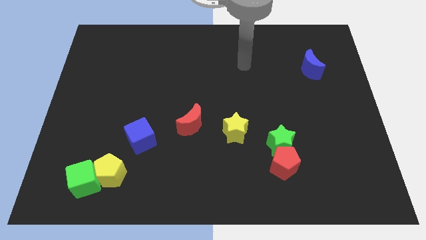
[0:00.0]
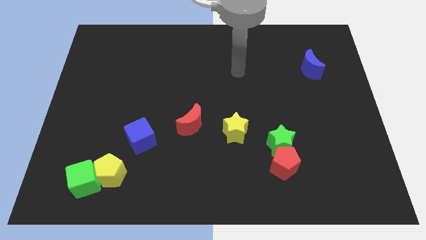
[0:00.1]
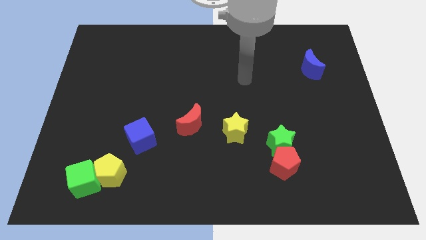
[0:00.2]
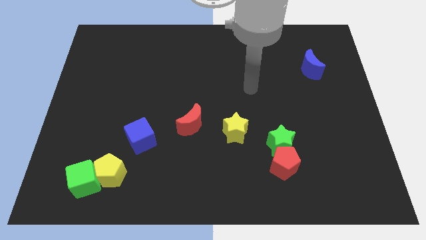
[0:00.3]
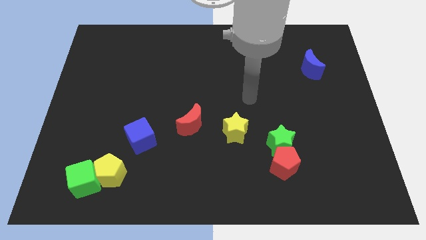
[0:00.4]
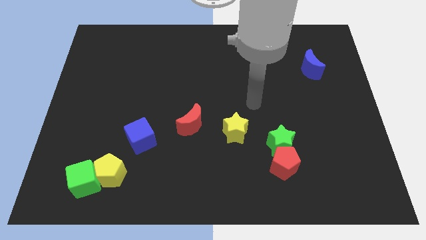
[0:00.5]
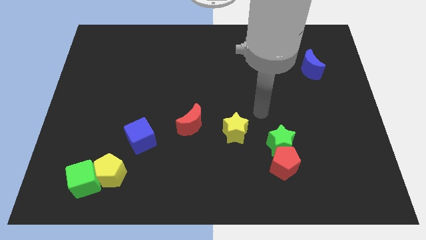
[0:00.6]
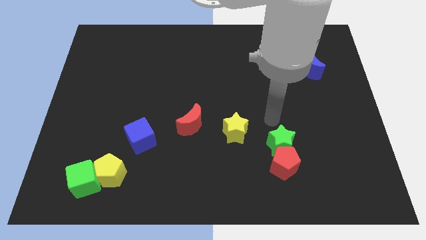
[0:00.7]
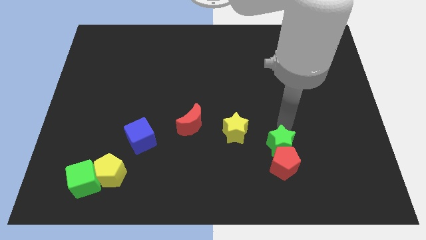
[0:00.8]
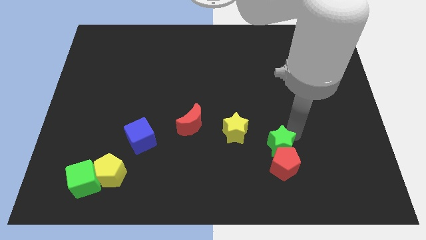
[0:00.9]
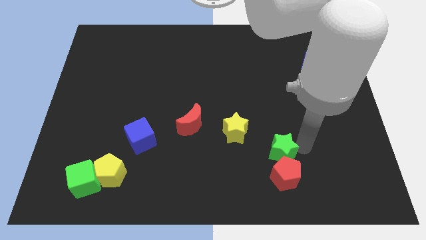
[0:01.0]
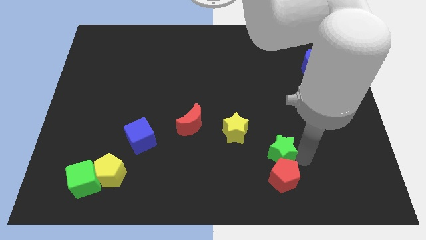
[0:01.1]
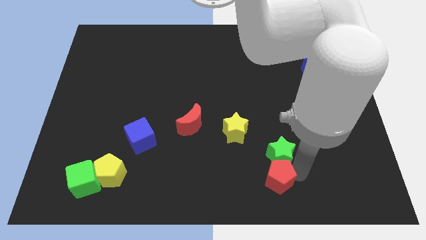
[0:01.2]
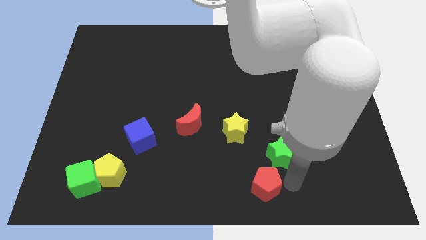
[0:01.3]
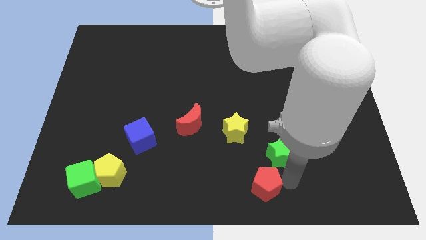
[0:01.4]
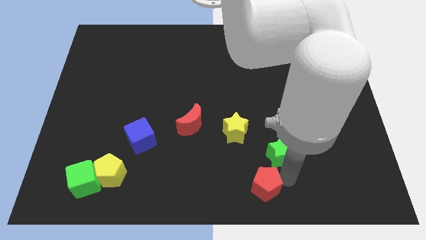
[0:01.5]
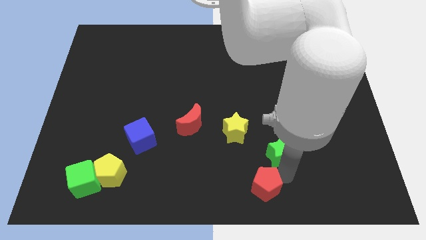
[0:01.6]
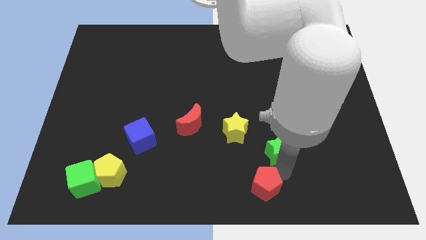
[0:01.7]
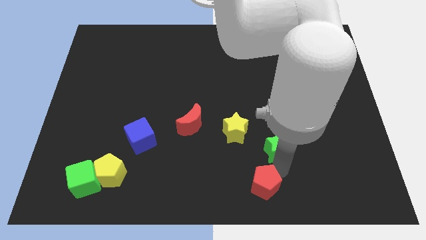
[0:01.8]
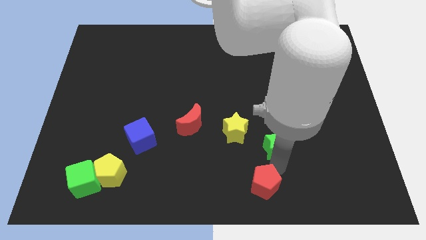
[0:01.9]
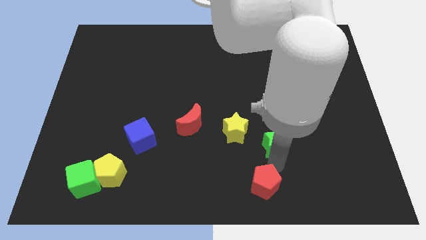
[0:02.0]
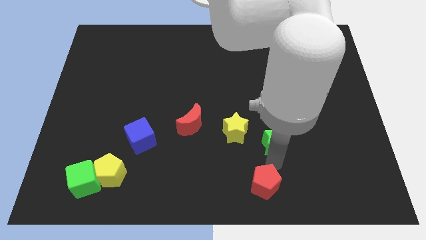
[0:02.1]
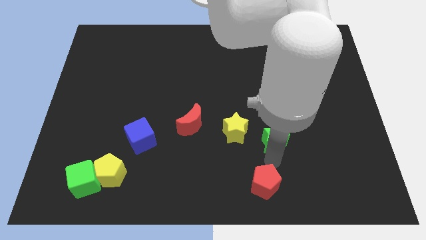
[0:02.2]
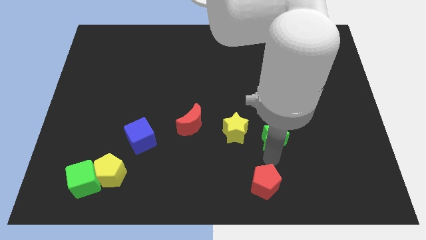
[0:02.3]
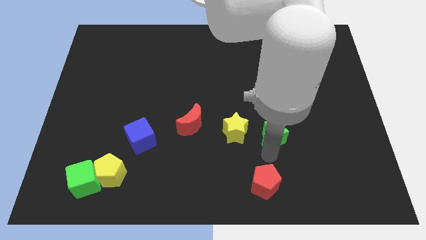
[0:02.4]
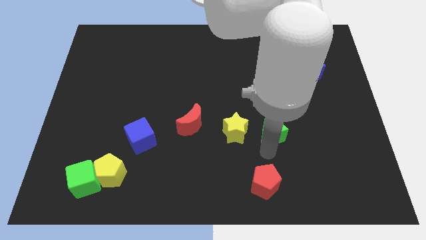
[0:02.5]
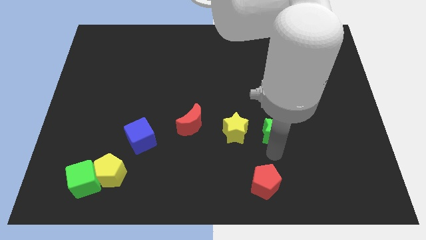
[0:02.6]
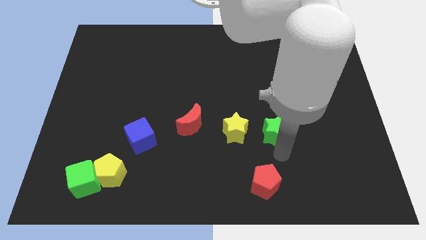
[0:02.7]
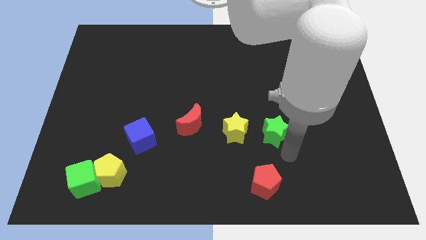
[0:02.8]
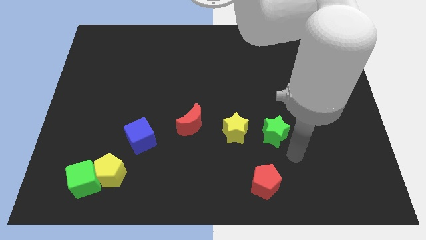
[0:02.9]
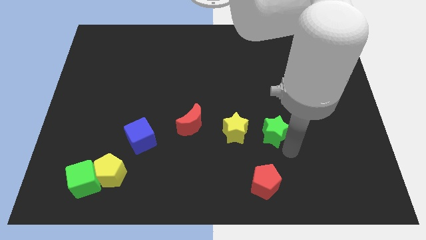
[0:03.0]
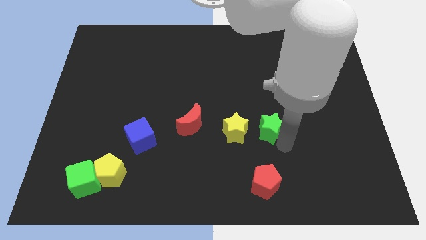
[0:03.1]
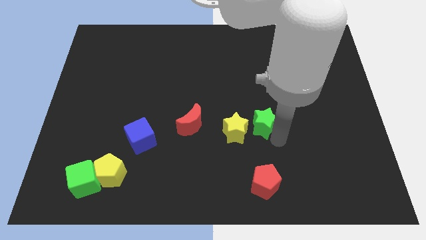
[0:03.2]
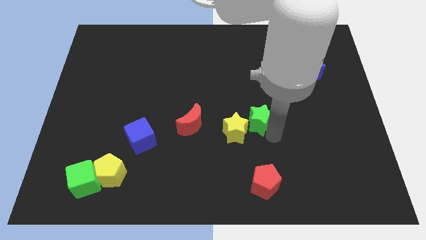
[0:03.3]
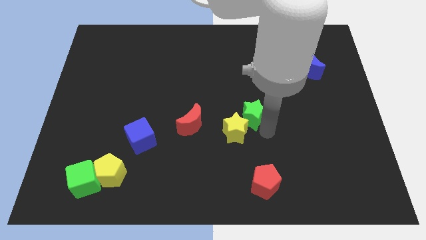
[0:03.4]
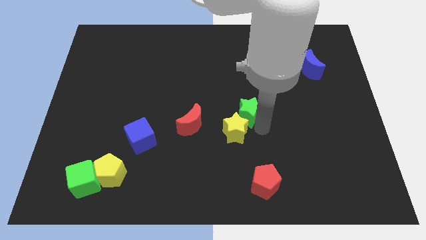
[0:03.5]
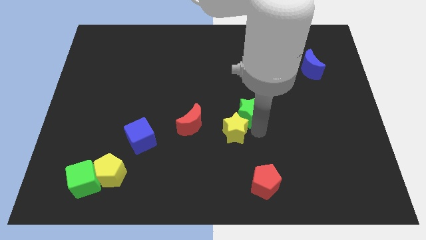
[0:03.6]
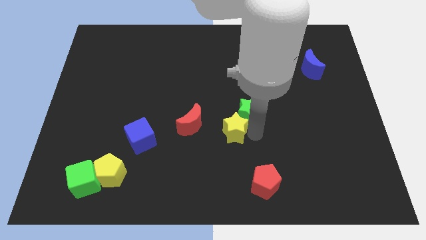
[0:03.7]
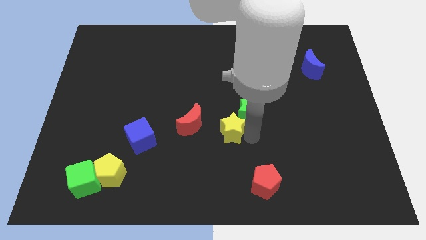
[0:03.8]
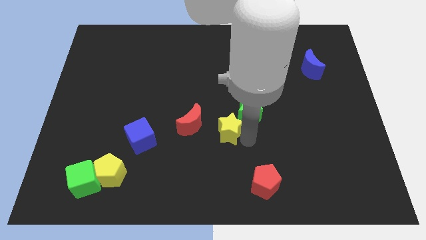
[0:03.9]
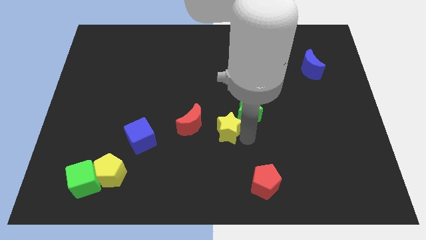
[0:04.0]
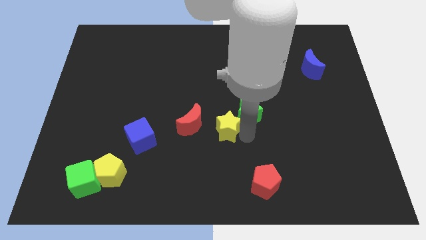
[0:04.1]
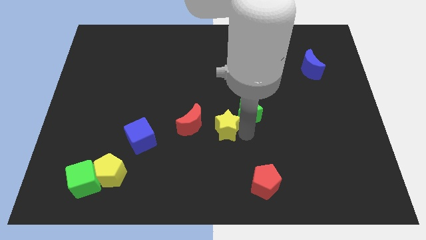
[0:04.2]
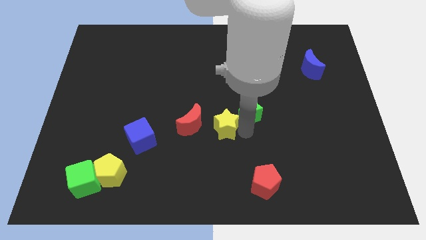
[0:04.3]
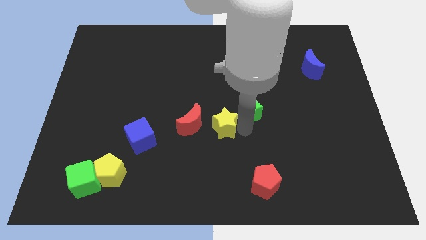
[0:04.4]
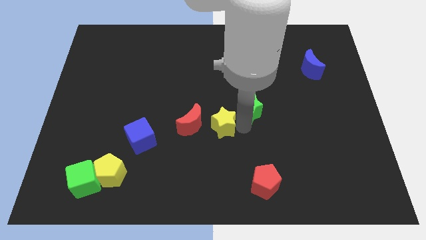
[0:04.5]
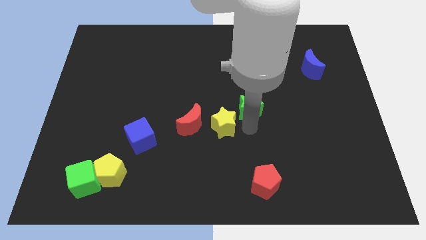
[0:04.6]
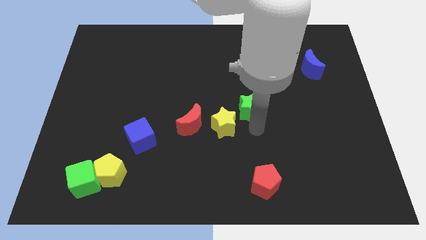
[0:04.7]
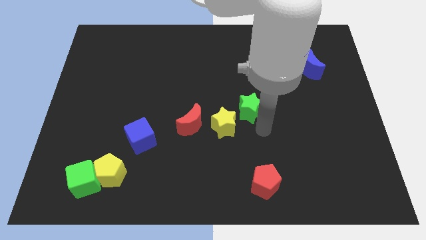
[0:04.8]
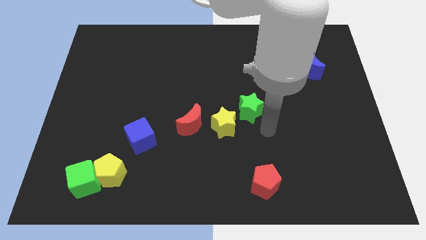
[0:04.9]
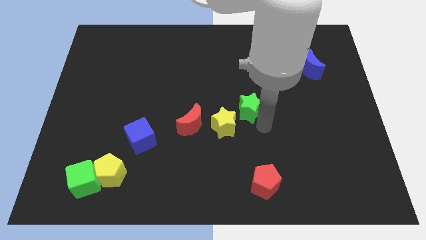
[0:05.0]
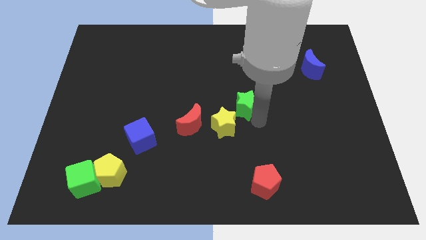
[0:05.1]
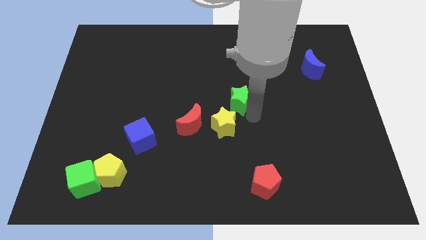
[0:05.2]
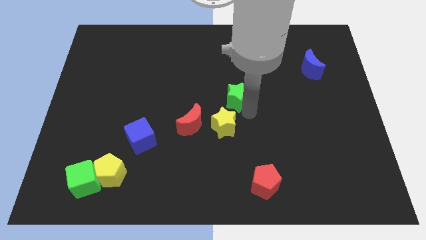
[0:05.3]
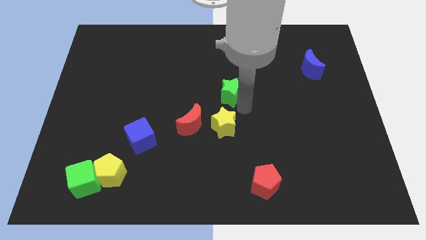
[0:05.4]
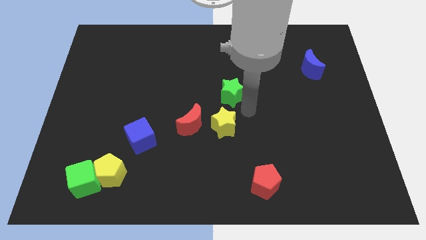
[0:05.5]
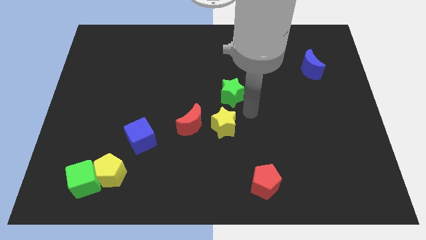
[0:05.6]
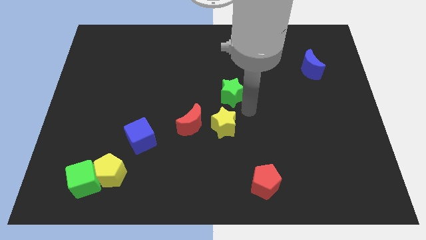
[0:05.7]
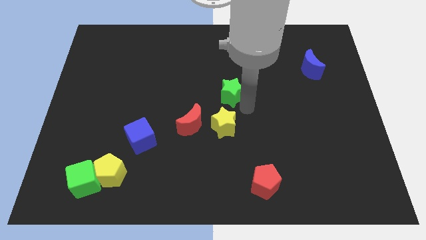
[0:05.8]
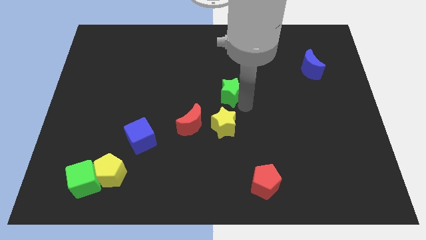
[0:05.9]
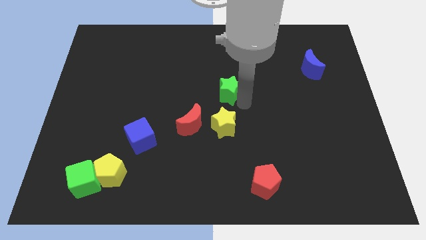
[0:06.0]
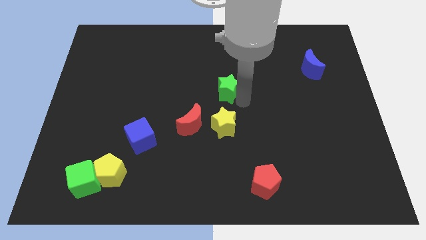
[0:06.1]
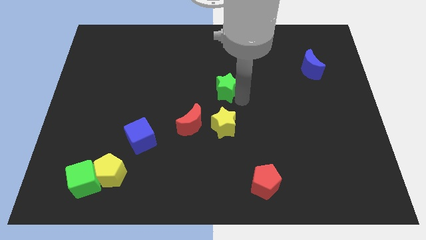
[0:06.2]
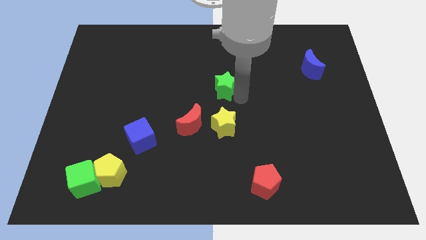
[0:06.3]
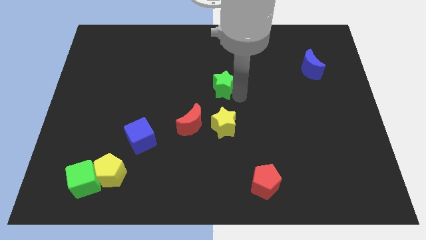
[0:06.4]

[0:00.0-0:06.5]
push the green star upwards and left

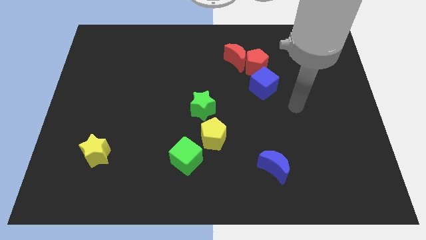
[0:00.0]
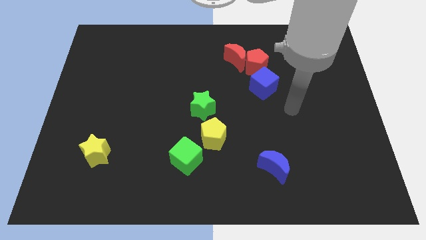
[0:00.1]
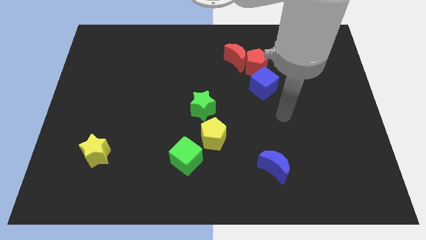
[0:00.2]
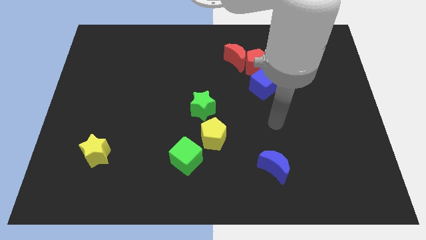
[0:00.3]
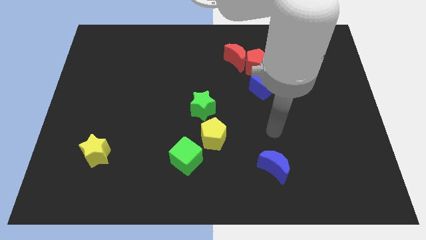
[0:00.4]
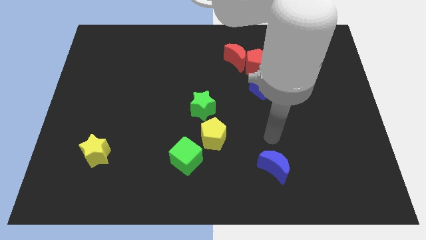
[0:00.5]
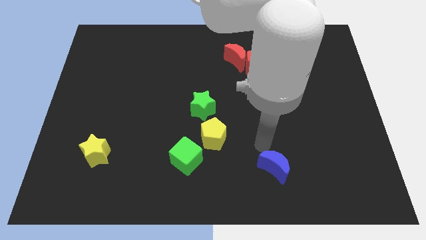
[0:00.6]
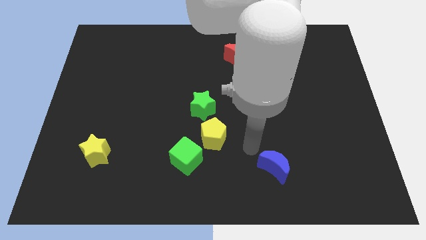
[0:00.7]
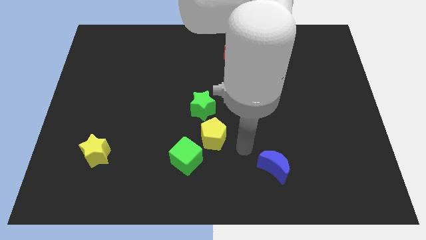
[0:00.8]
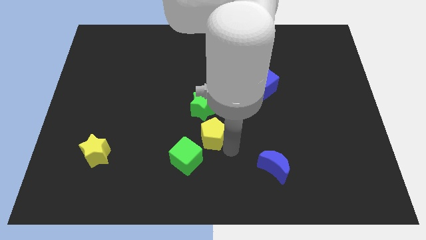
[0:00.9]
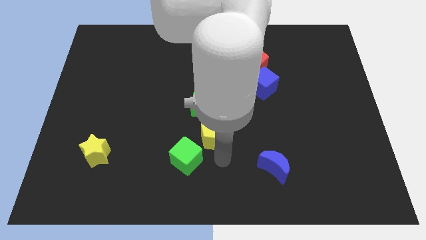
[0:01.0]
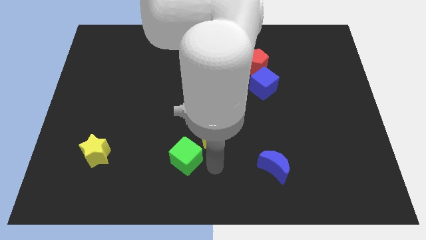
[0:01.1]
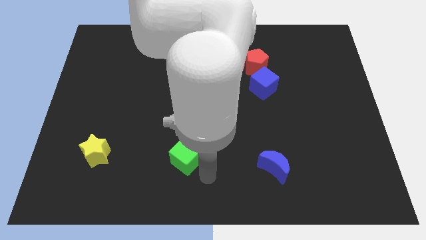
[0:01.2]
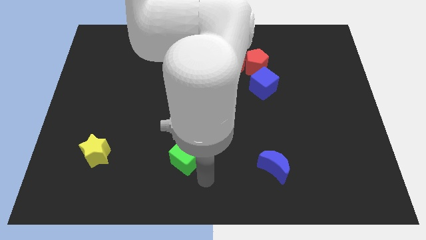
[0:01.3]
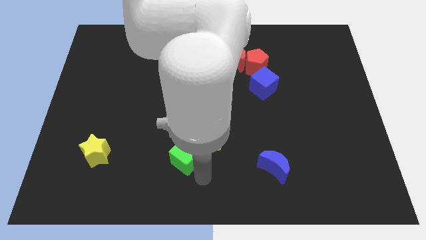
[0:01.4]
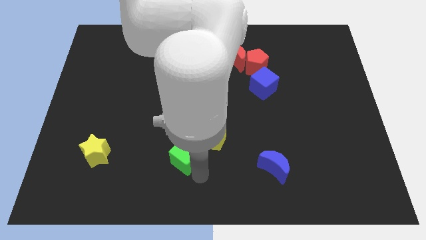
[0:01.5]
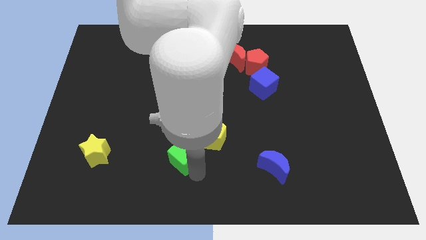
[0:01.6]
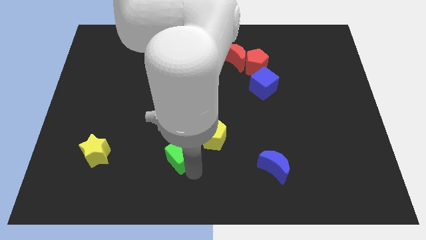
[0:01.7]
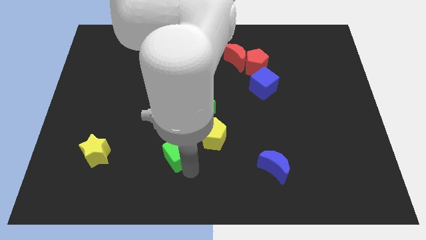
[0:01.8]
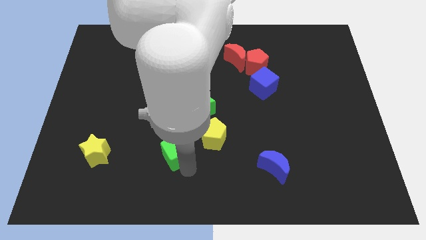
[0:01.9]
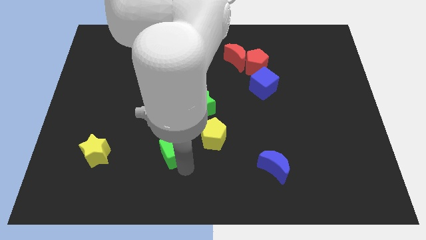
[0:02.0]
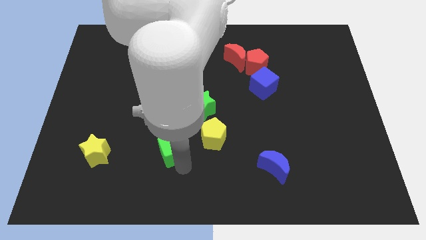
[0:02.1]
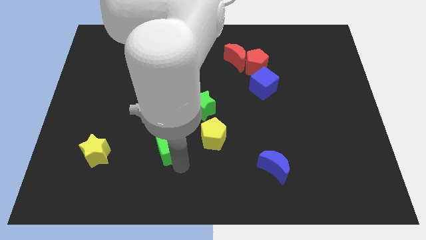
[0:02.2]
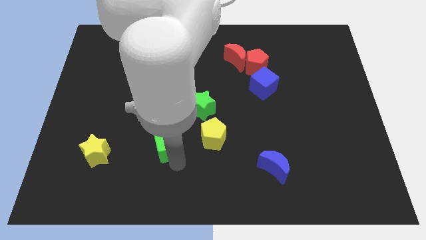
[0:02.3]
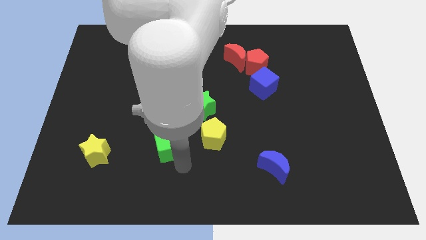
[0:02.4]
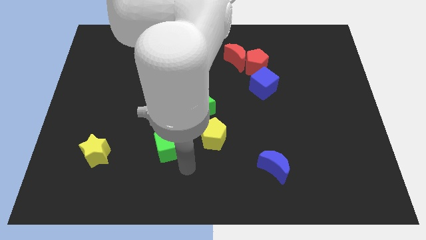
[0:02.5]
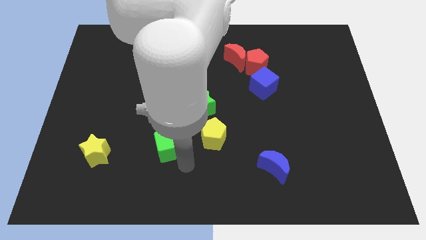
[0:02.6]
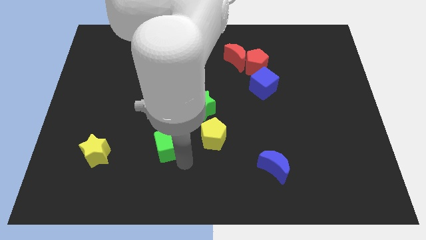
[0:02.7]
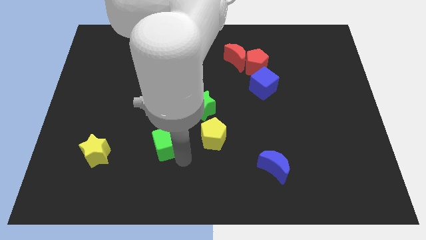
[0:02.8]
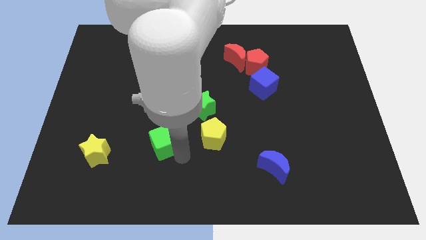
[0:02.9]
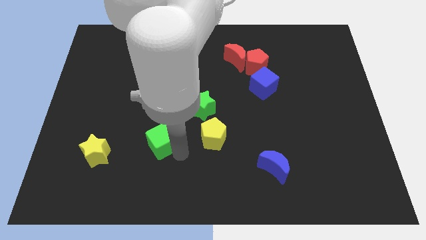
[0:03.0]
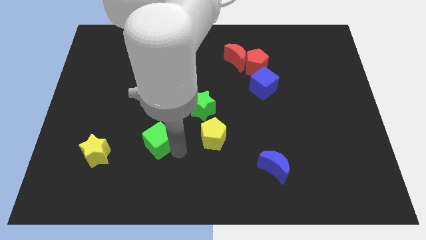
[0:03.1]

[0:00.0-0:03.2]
push the green cube a little bit upwards and then to the left
